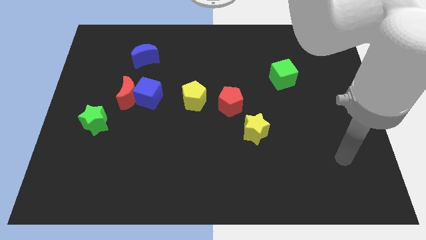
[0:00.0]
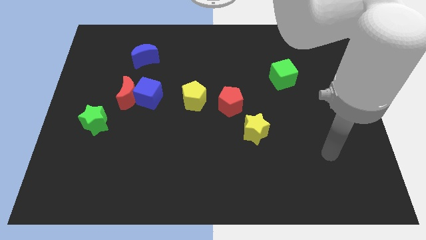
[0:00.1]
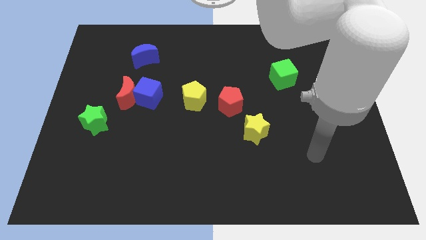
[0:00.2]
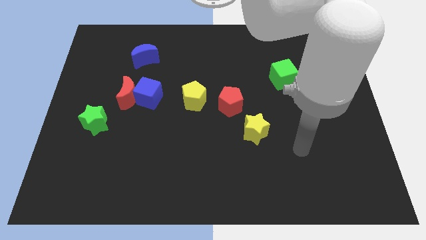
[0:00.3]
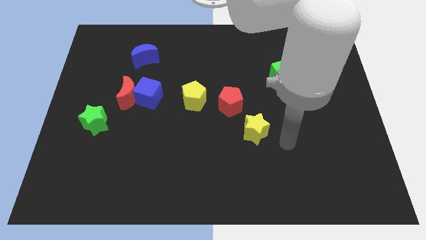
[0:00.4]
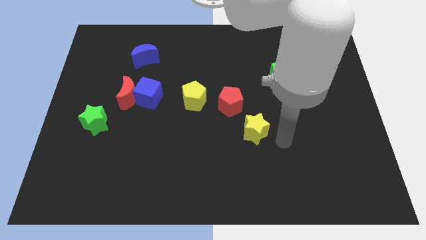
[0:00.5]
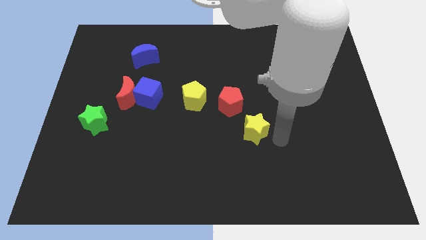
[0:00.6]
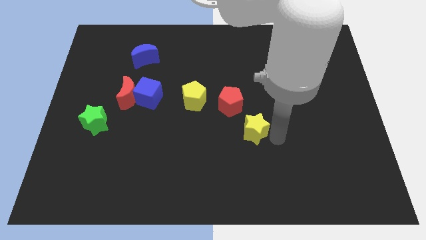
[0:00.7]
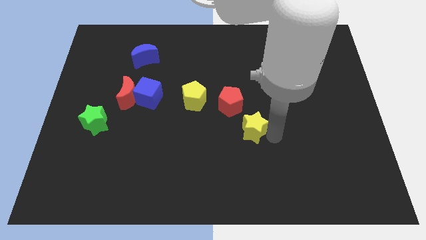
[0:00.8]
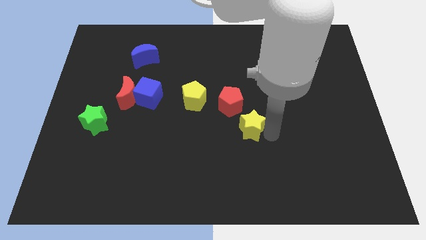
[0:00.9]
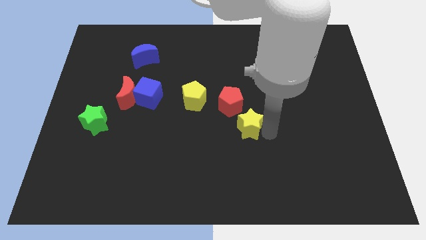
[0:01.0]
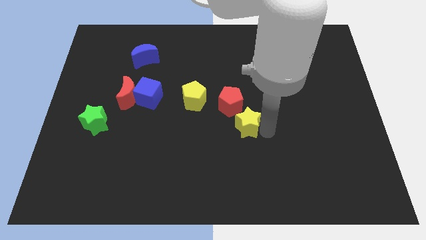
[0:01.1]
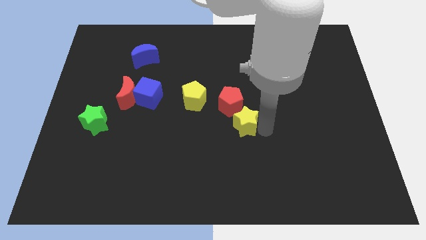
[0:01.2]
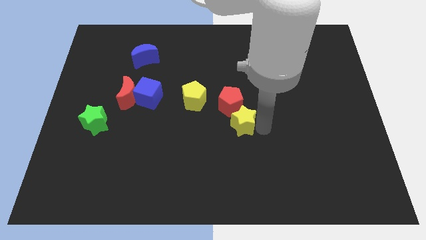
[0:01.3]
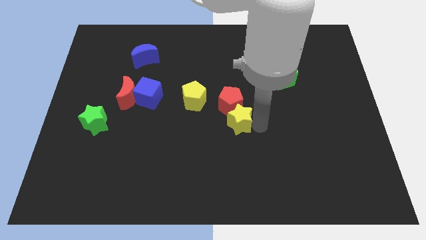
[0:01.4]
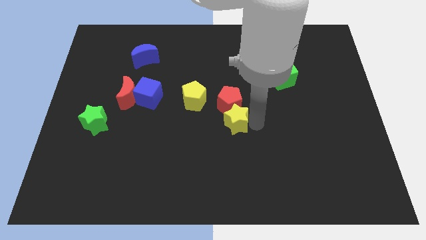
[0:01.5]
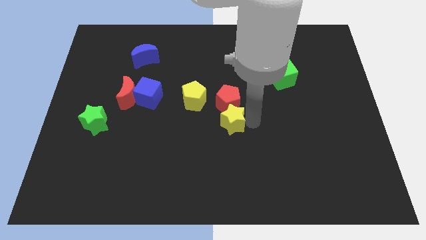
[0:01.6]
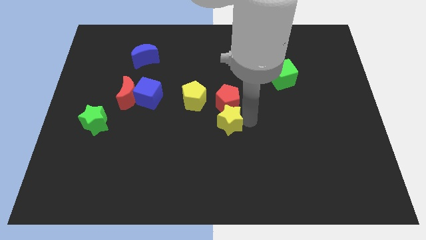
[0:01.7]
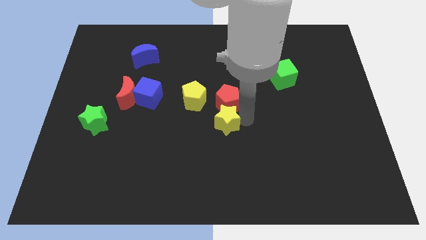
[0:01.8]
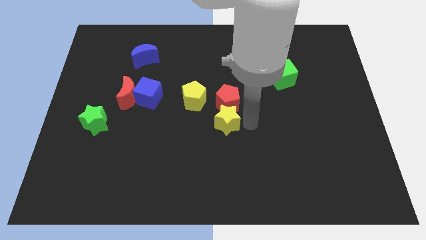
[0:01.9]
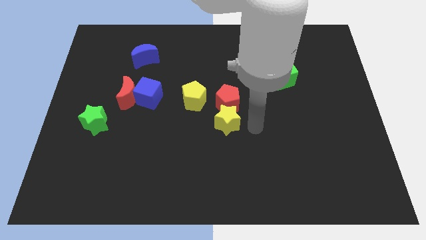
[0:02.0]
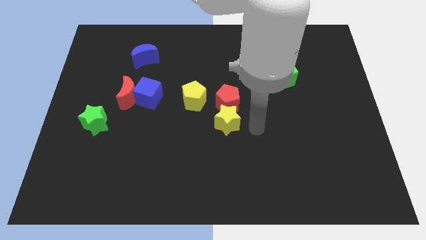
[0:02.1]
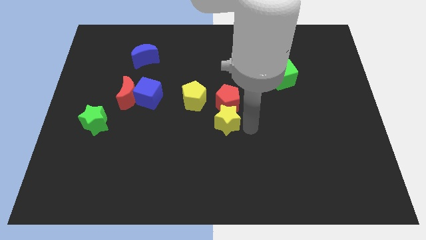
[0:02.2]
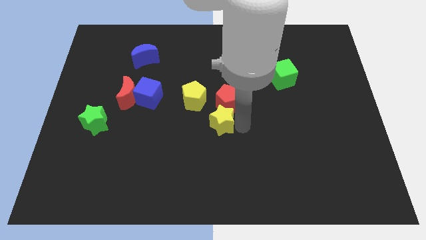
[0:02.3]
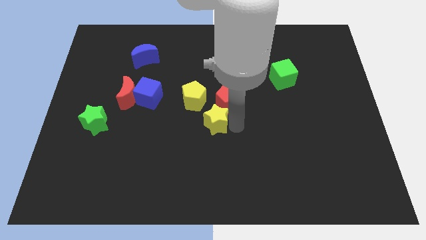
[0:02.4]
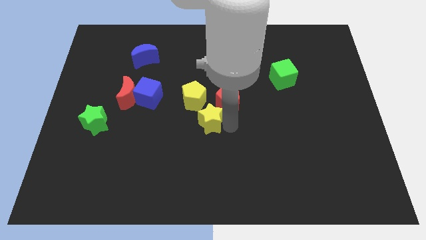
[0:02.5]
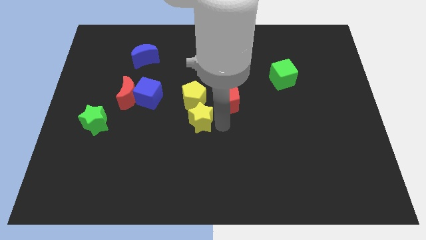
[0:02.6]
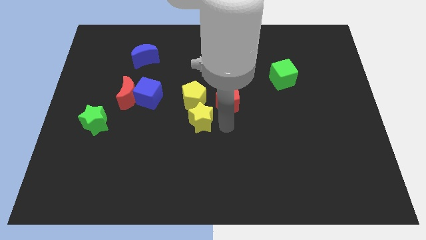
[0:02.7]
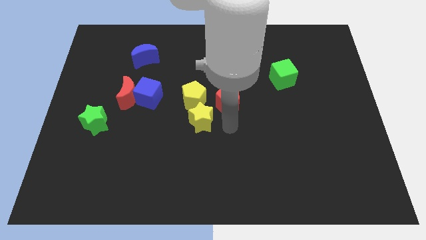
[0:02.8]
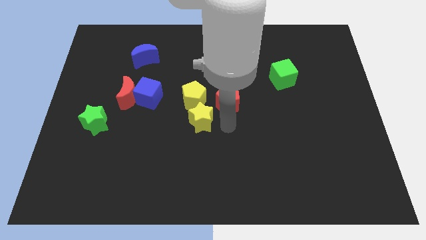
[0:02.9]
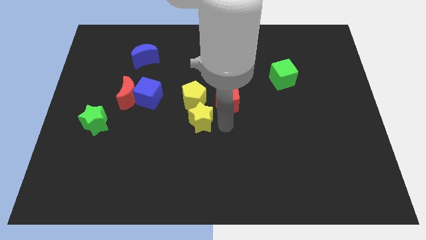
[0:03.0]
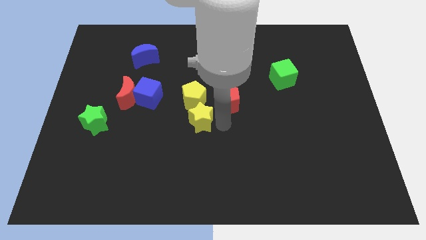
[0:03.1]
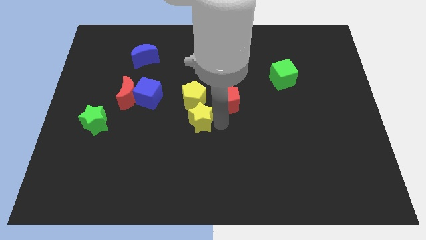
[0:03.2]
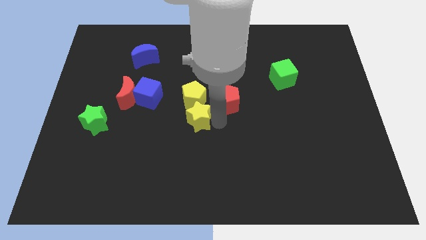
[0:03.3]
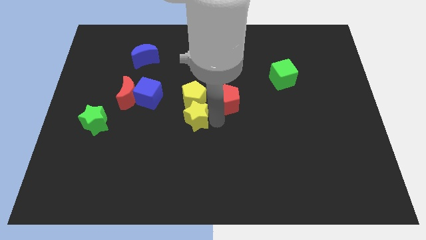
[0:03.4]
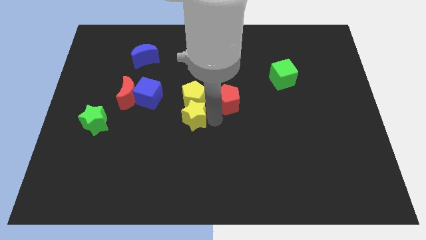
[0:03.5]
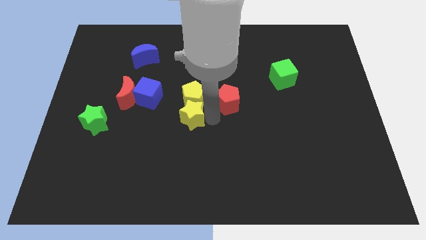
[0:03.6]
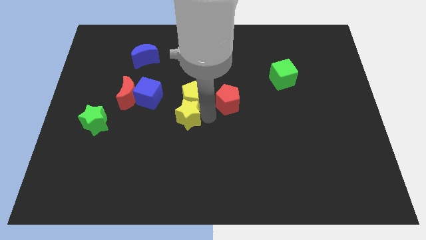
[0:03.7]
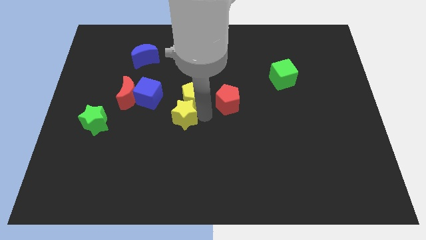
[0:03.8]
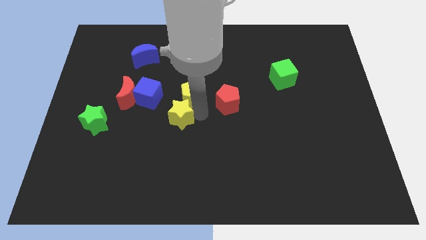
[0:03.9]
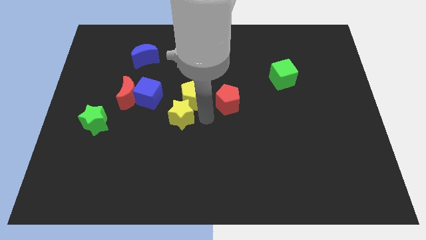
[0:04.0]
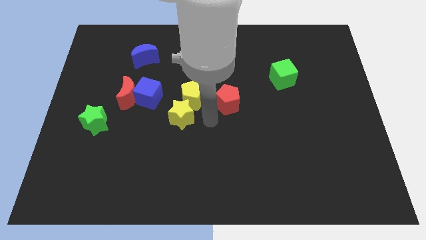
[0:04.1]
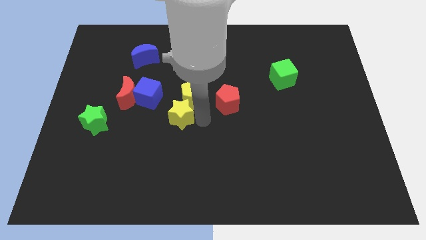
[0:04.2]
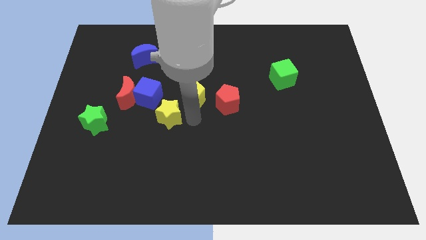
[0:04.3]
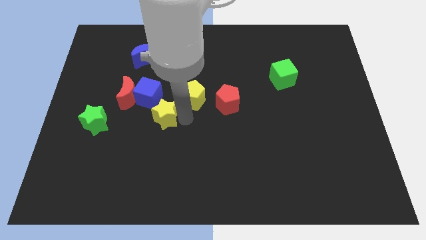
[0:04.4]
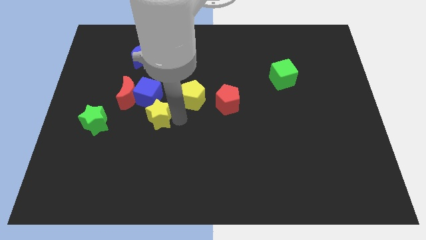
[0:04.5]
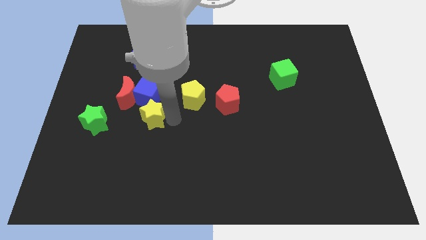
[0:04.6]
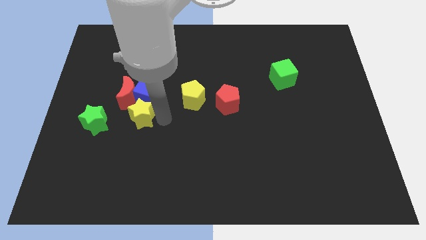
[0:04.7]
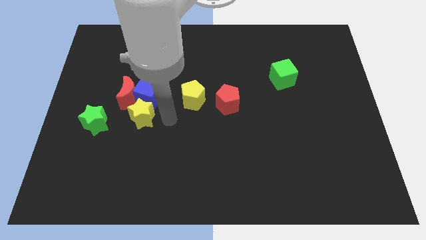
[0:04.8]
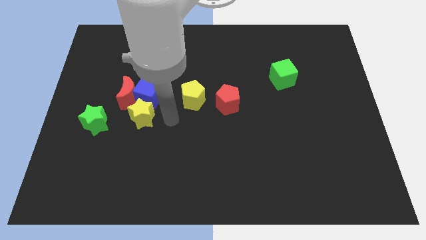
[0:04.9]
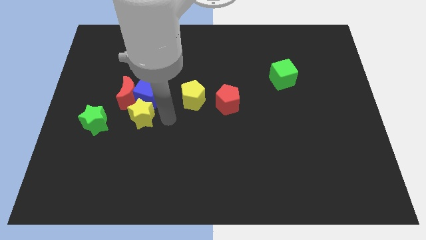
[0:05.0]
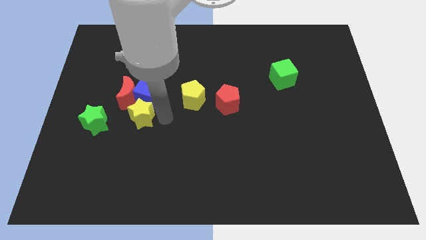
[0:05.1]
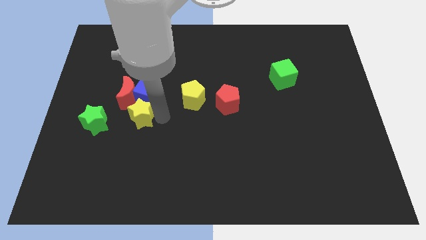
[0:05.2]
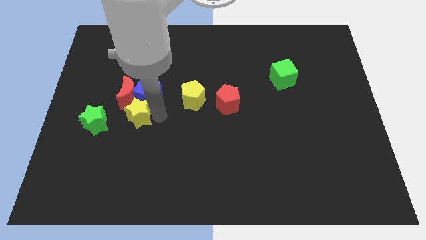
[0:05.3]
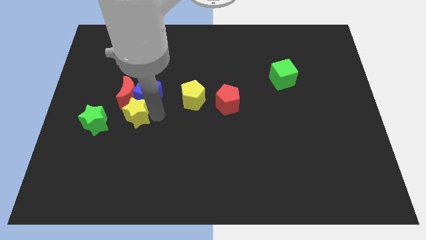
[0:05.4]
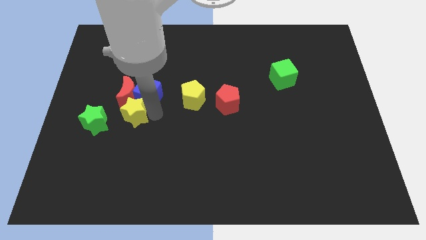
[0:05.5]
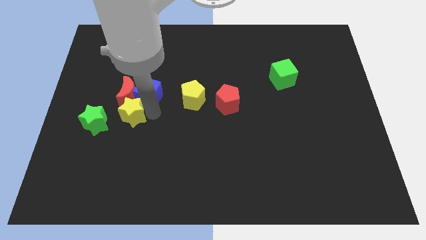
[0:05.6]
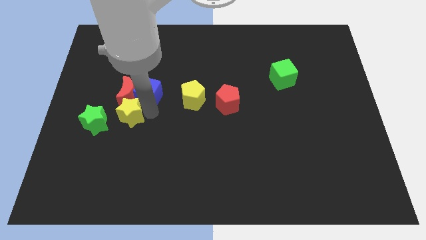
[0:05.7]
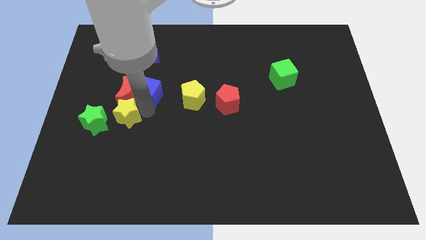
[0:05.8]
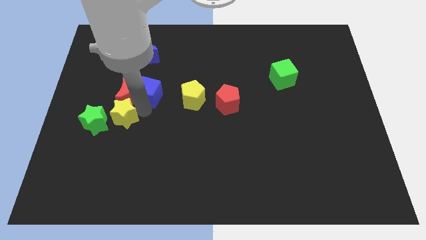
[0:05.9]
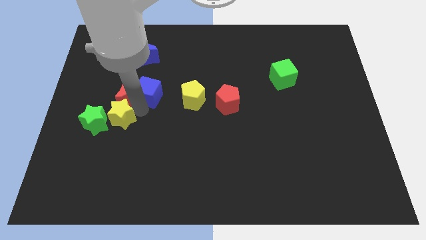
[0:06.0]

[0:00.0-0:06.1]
move the yellow star to the green star

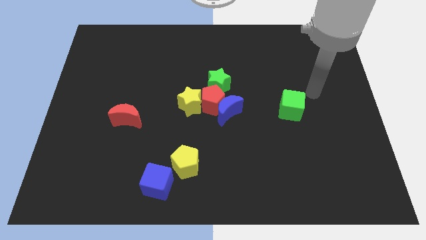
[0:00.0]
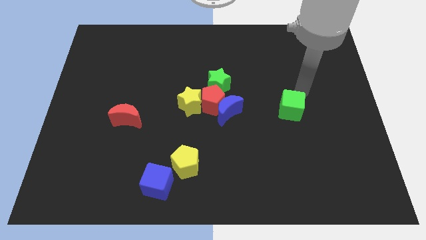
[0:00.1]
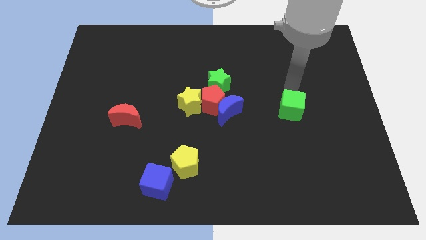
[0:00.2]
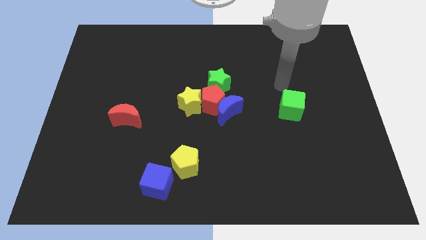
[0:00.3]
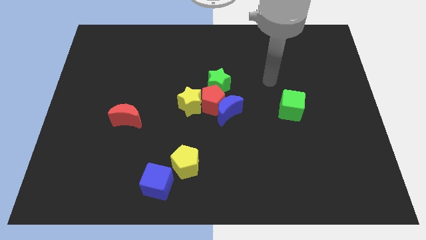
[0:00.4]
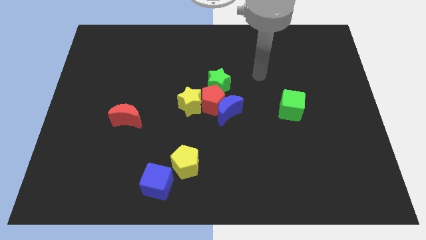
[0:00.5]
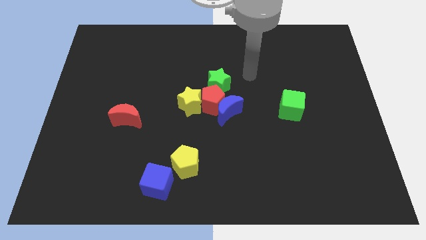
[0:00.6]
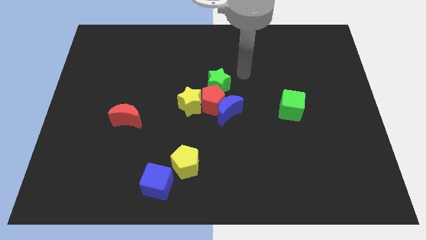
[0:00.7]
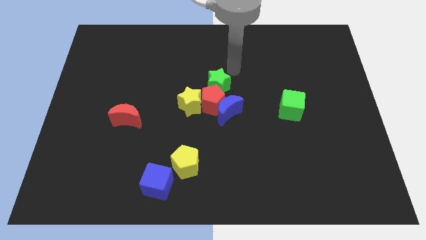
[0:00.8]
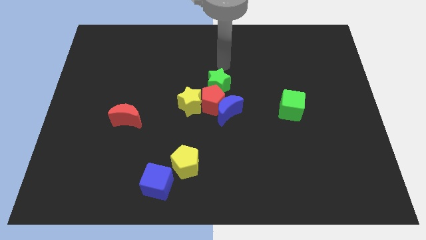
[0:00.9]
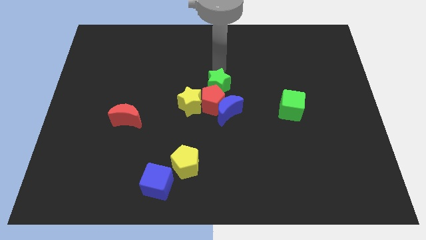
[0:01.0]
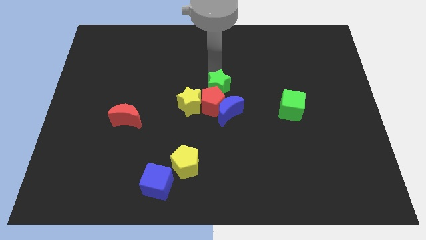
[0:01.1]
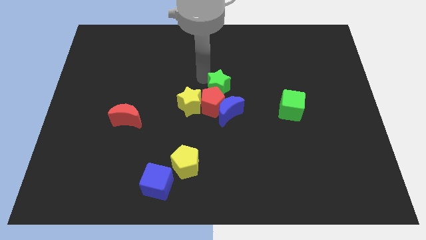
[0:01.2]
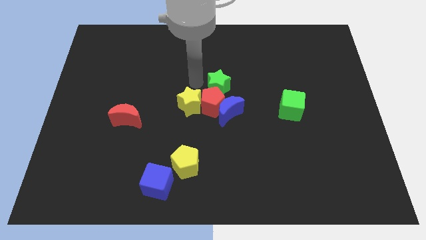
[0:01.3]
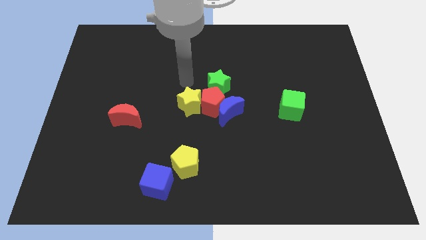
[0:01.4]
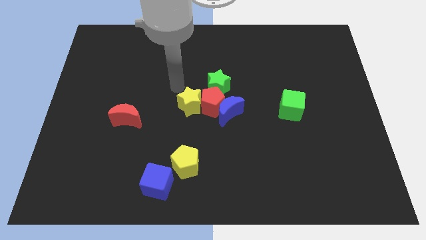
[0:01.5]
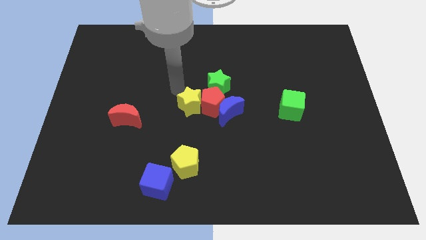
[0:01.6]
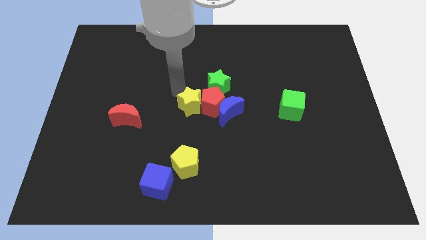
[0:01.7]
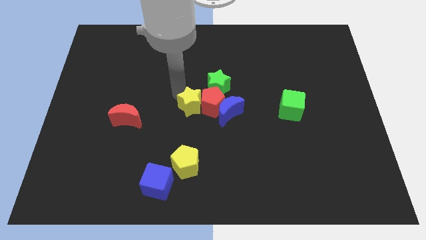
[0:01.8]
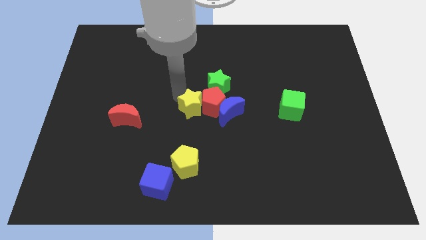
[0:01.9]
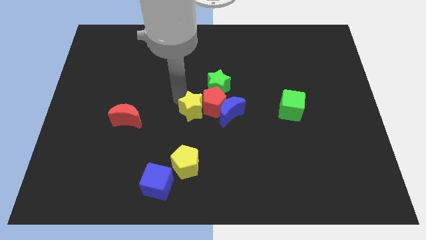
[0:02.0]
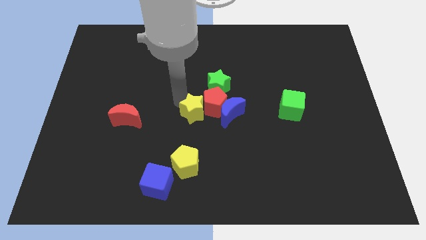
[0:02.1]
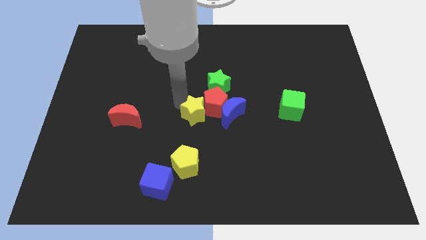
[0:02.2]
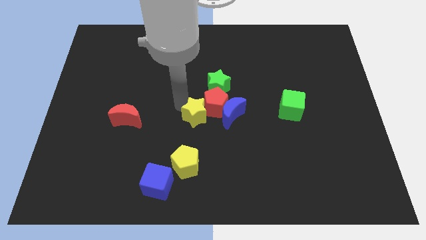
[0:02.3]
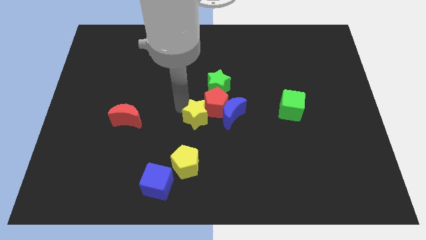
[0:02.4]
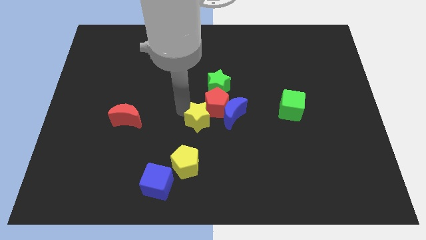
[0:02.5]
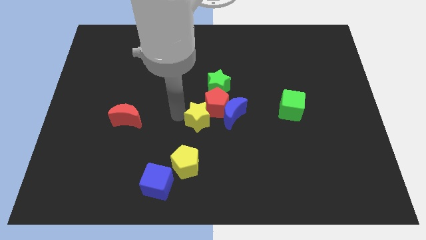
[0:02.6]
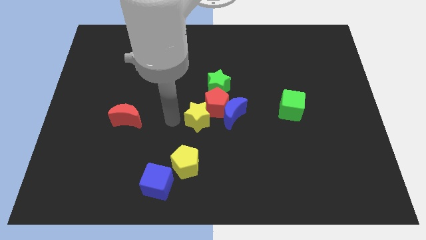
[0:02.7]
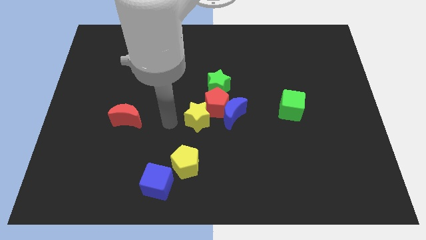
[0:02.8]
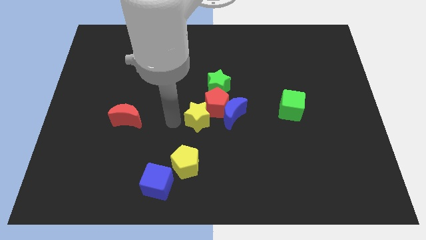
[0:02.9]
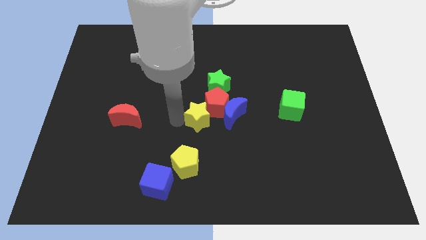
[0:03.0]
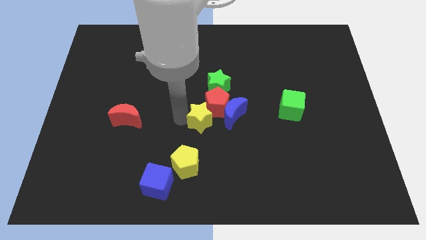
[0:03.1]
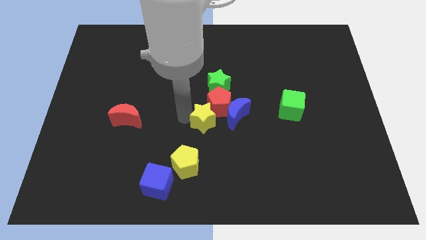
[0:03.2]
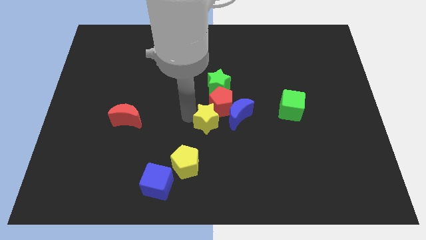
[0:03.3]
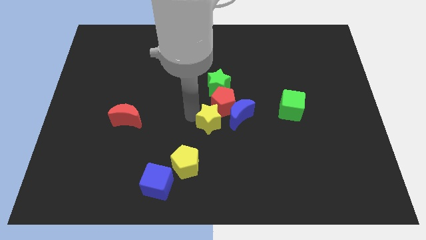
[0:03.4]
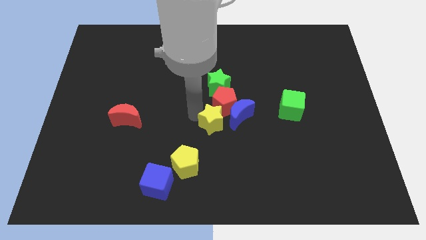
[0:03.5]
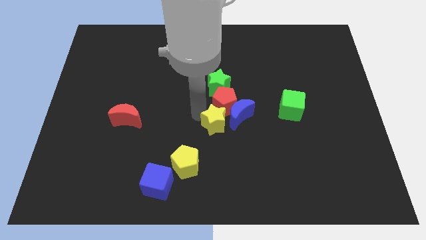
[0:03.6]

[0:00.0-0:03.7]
put the yellow star towards the blue moon
